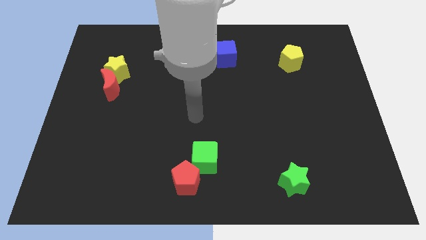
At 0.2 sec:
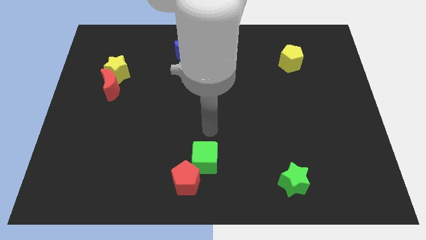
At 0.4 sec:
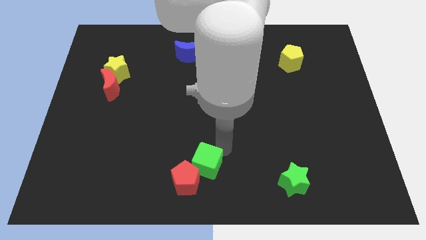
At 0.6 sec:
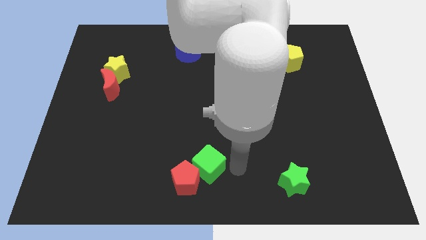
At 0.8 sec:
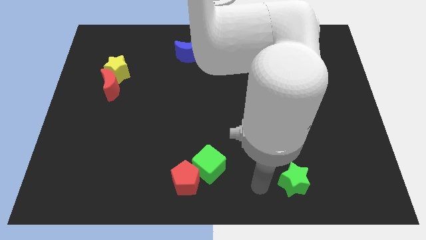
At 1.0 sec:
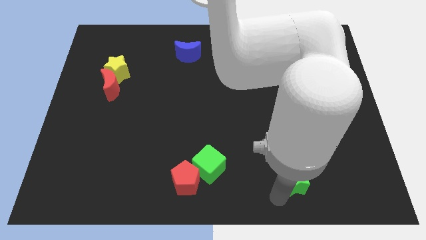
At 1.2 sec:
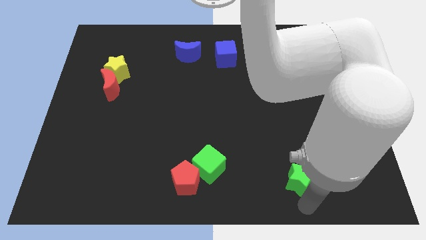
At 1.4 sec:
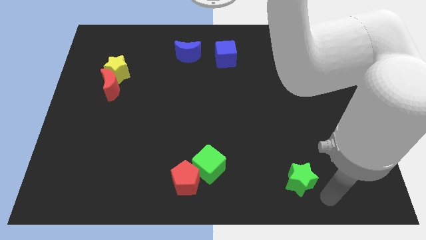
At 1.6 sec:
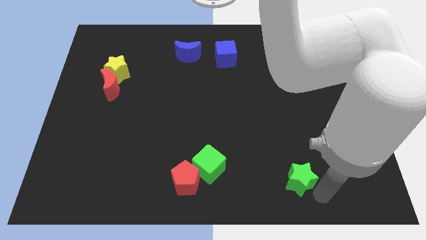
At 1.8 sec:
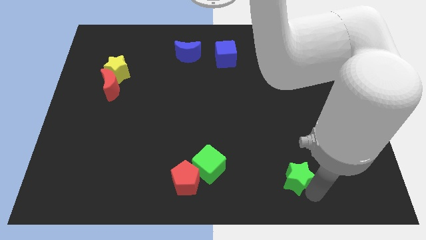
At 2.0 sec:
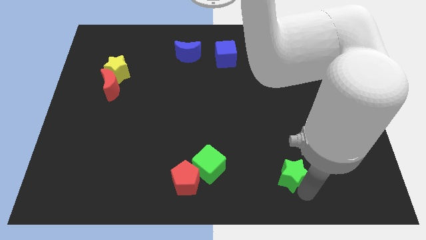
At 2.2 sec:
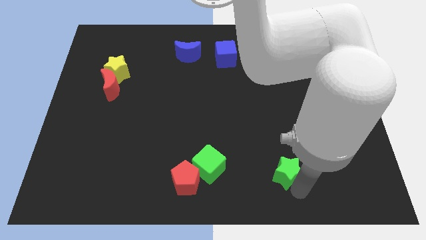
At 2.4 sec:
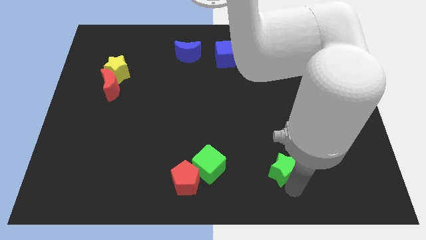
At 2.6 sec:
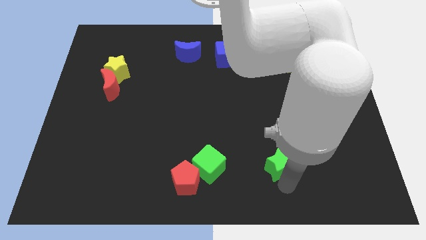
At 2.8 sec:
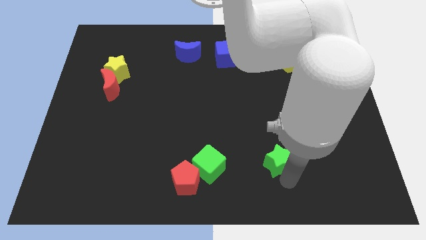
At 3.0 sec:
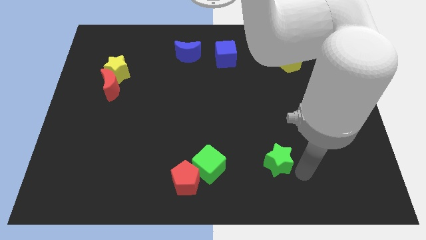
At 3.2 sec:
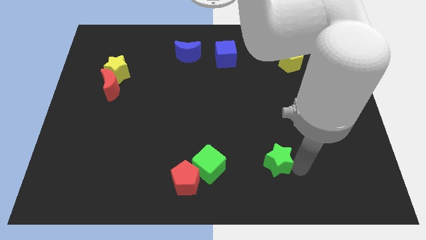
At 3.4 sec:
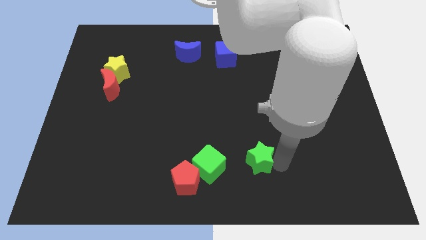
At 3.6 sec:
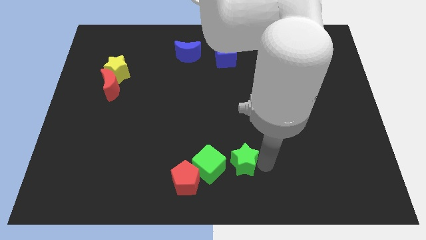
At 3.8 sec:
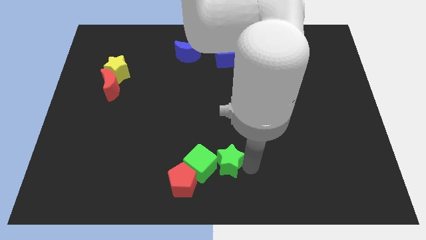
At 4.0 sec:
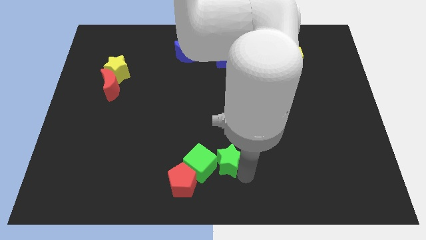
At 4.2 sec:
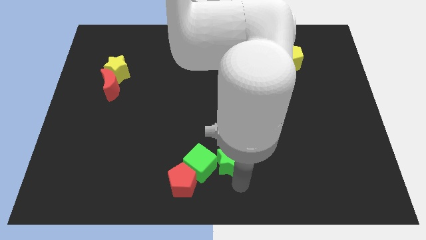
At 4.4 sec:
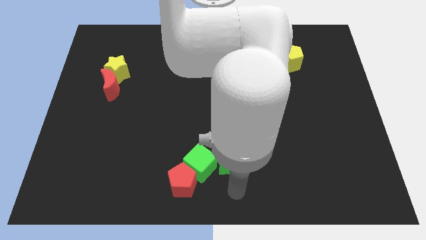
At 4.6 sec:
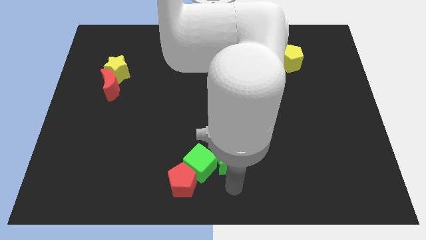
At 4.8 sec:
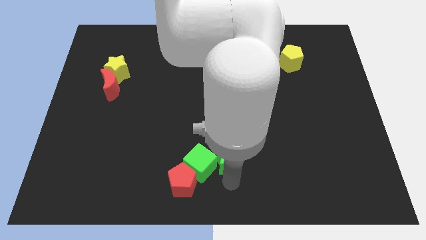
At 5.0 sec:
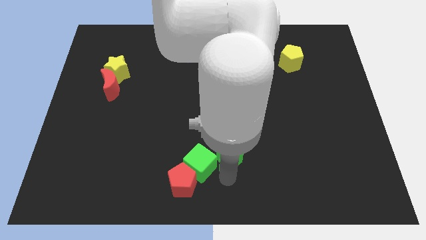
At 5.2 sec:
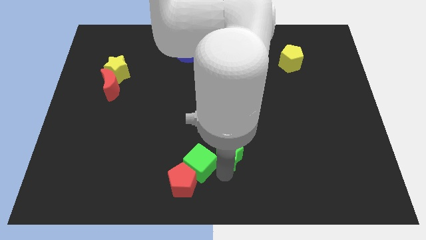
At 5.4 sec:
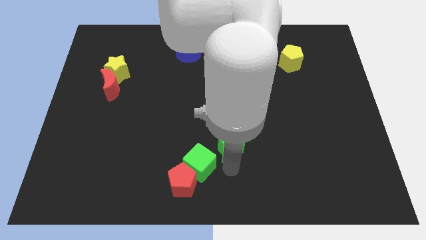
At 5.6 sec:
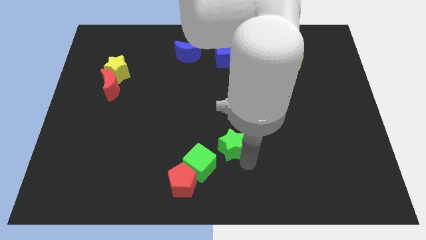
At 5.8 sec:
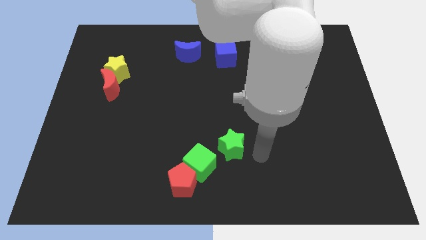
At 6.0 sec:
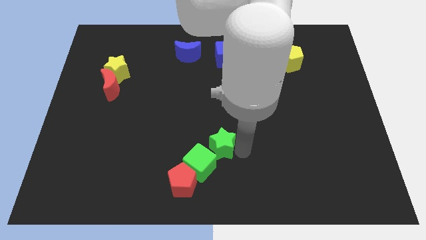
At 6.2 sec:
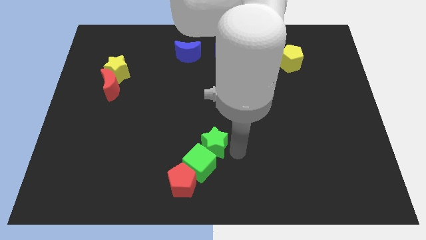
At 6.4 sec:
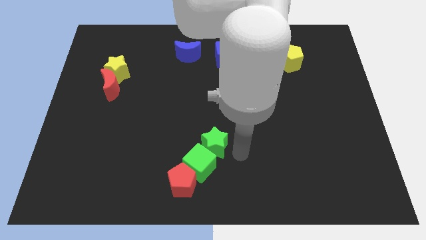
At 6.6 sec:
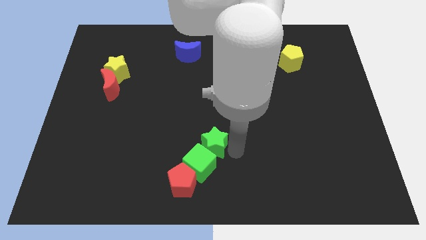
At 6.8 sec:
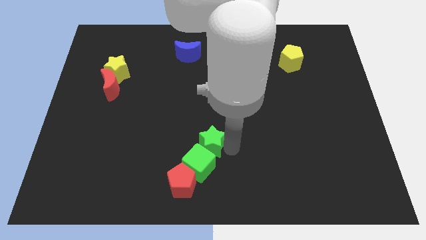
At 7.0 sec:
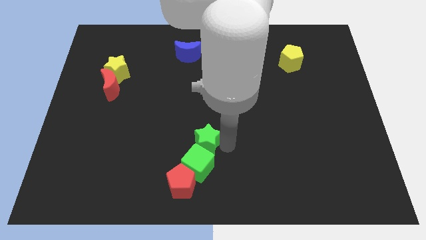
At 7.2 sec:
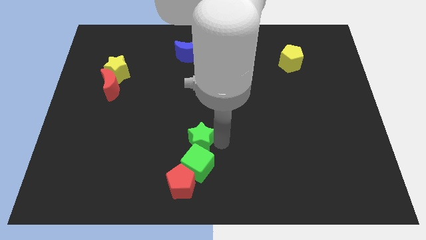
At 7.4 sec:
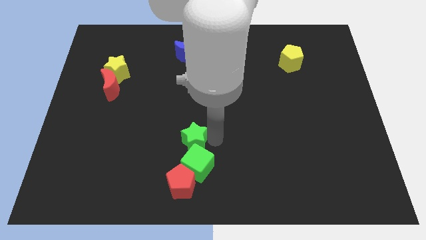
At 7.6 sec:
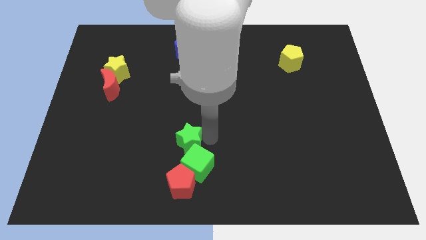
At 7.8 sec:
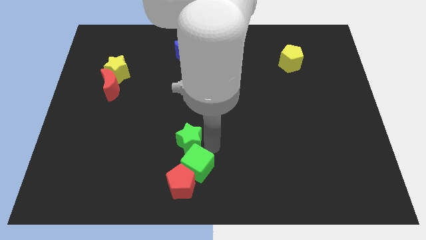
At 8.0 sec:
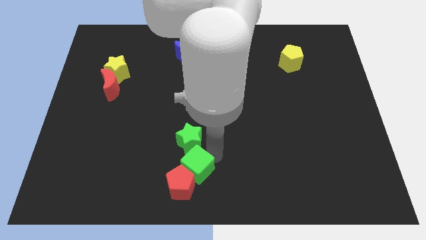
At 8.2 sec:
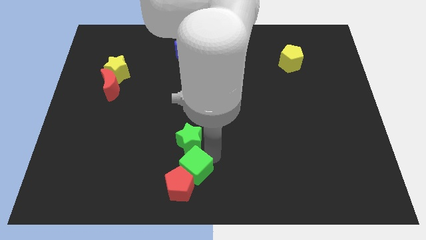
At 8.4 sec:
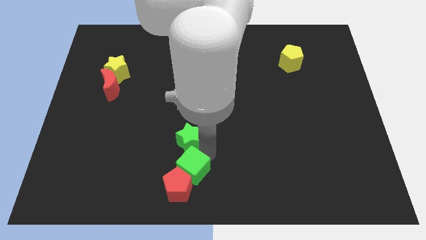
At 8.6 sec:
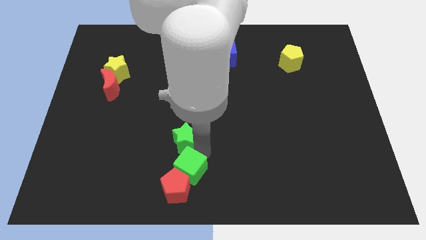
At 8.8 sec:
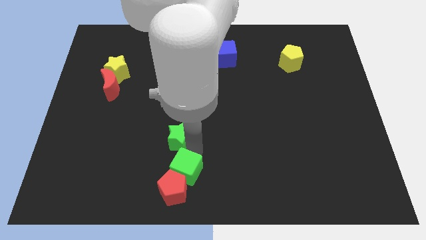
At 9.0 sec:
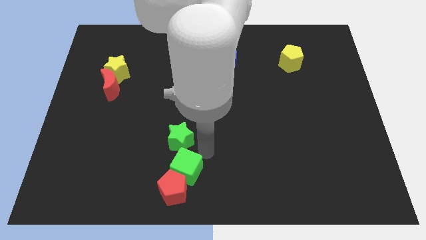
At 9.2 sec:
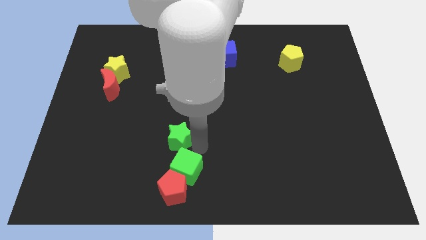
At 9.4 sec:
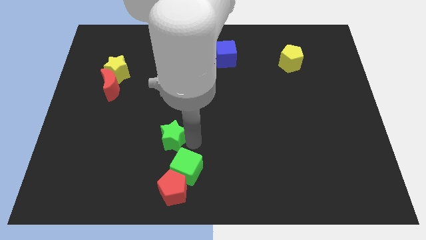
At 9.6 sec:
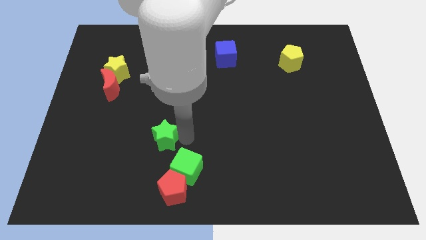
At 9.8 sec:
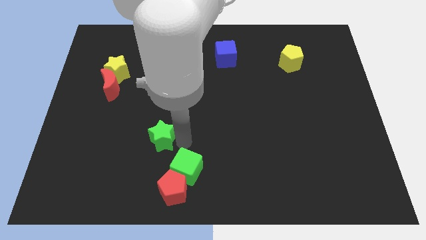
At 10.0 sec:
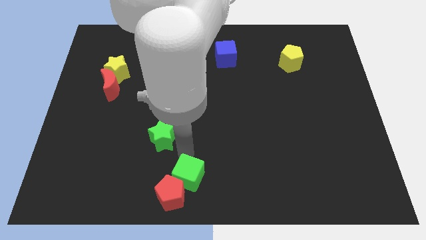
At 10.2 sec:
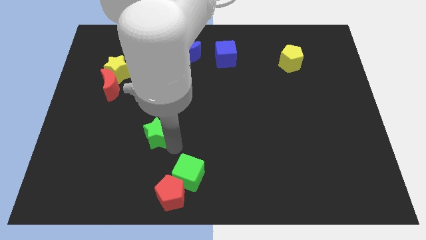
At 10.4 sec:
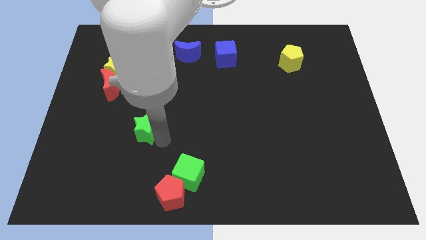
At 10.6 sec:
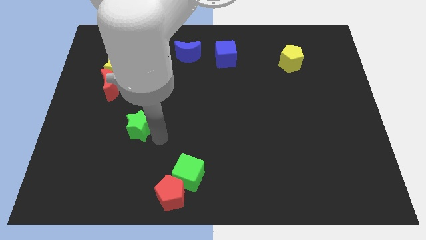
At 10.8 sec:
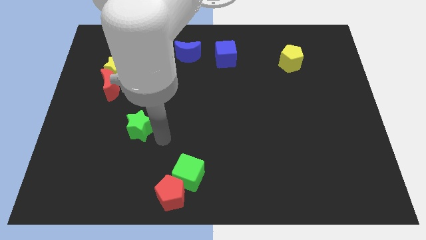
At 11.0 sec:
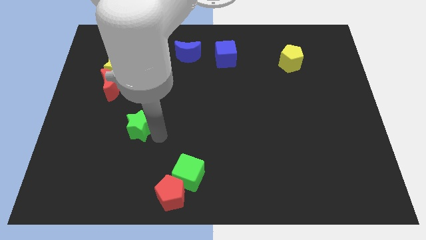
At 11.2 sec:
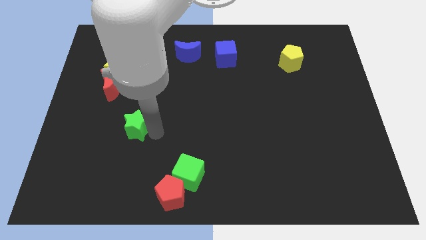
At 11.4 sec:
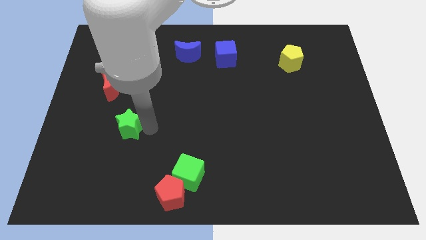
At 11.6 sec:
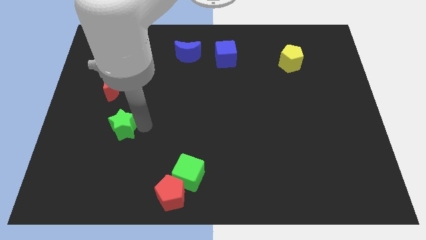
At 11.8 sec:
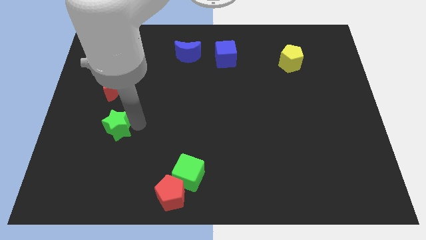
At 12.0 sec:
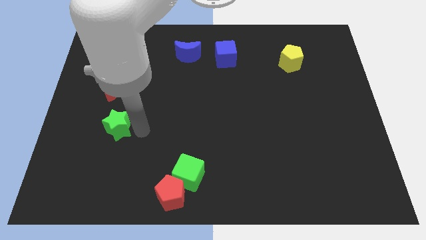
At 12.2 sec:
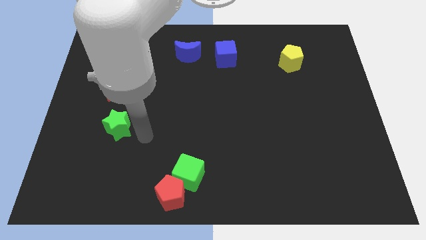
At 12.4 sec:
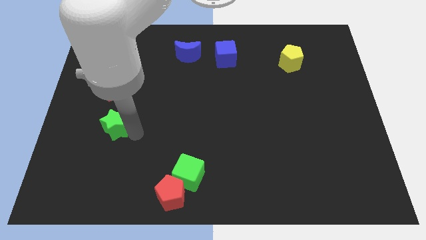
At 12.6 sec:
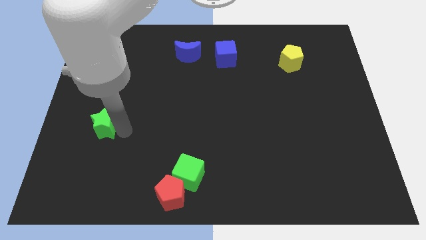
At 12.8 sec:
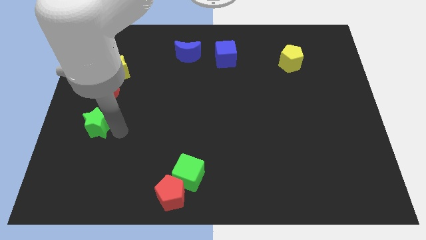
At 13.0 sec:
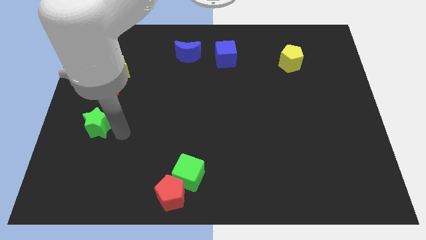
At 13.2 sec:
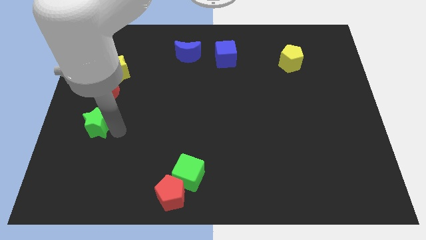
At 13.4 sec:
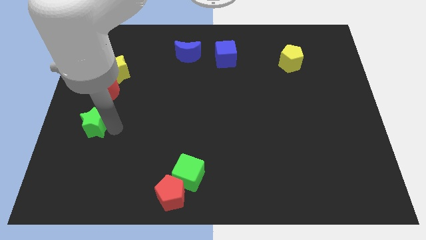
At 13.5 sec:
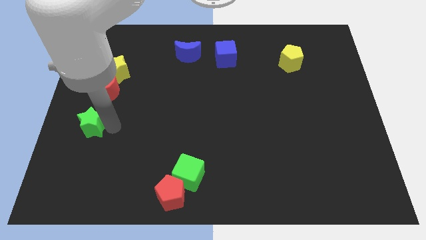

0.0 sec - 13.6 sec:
push the green star to the left side of the board
